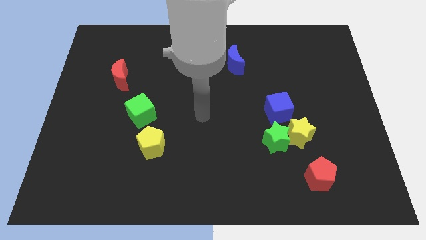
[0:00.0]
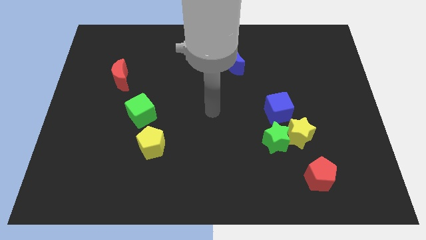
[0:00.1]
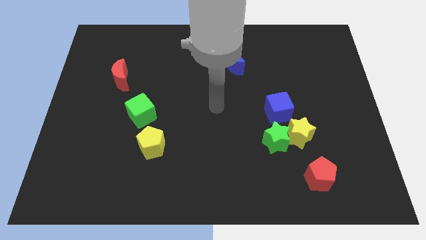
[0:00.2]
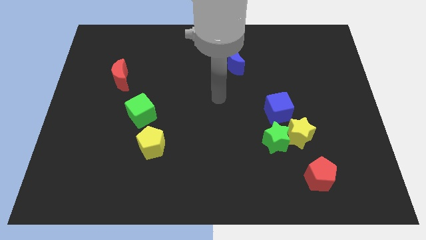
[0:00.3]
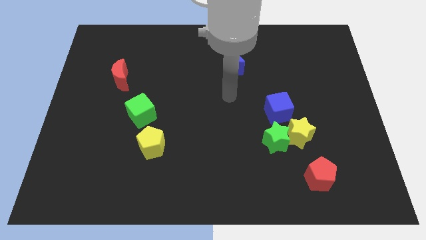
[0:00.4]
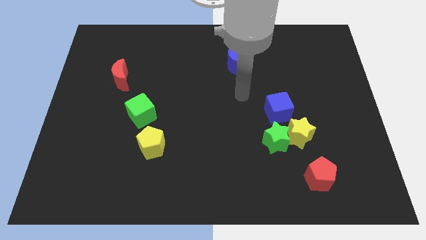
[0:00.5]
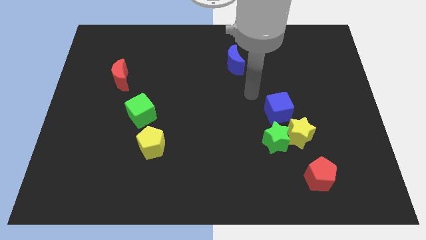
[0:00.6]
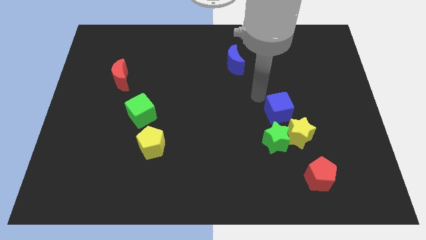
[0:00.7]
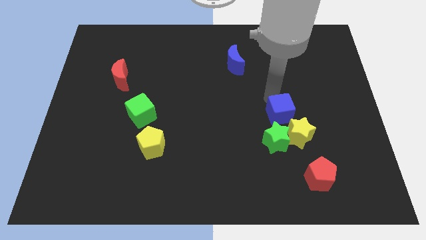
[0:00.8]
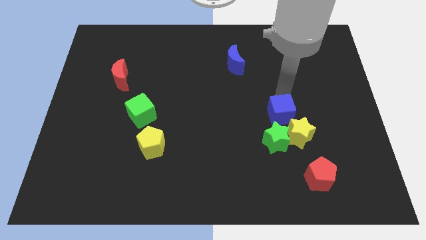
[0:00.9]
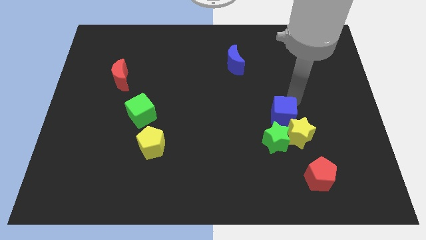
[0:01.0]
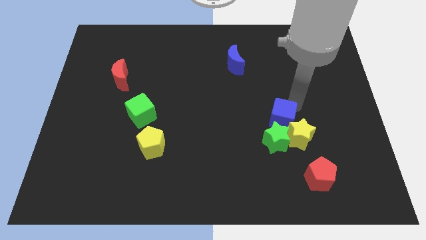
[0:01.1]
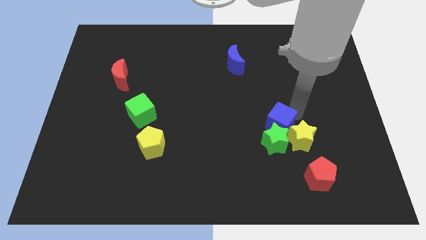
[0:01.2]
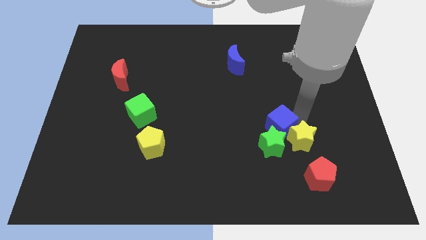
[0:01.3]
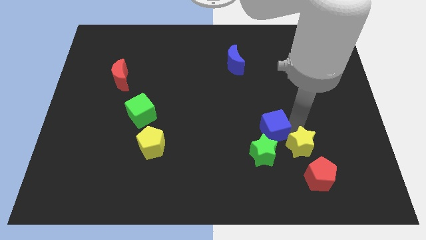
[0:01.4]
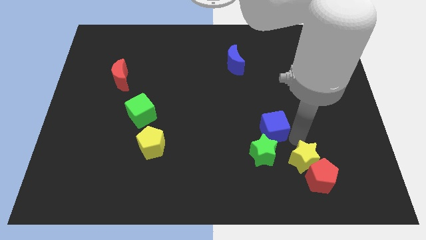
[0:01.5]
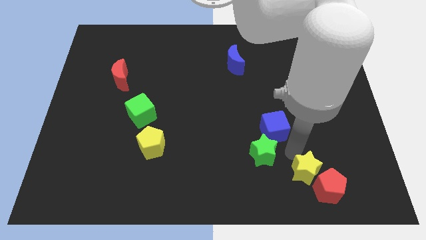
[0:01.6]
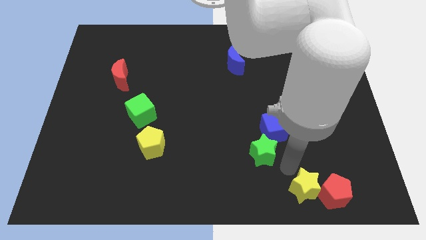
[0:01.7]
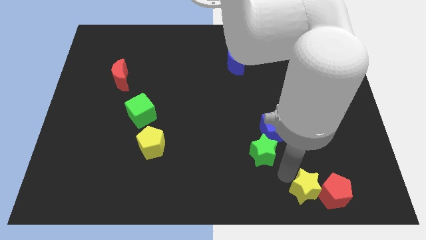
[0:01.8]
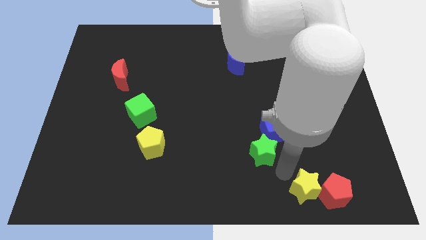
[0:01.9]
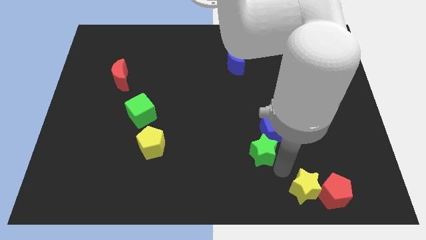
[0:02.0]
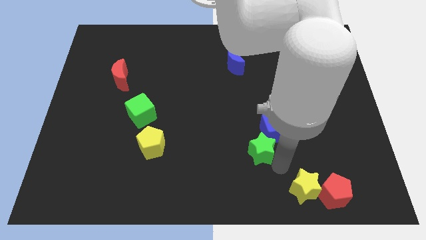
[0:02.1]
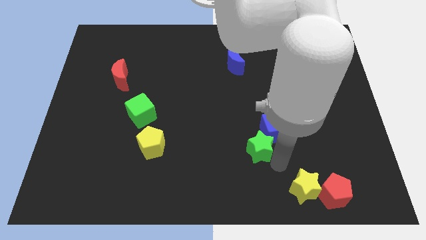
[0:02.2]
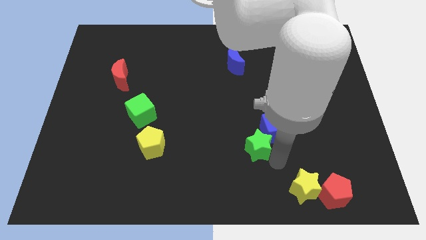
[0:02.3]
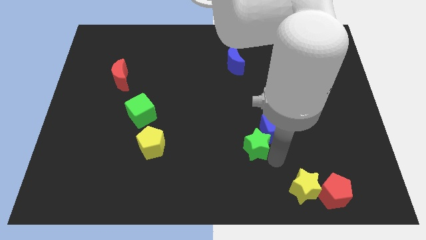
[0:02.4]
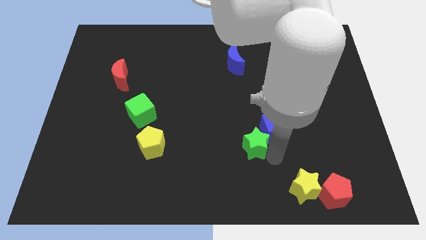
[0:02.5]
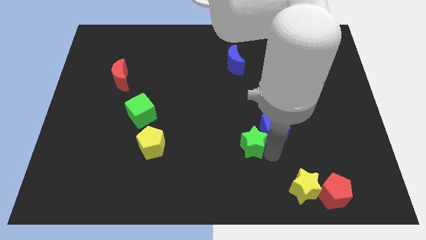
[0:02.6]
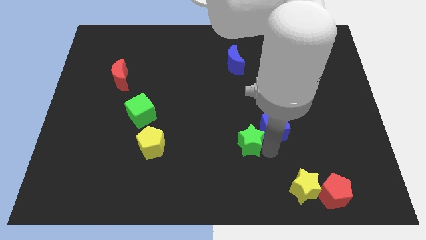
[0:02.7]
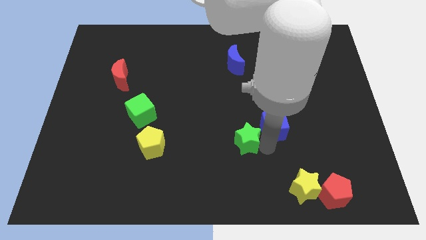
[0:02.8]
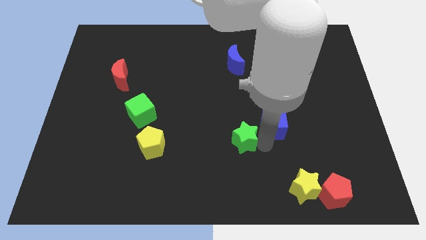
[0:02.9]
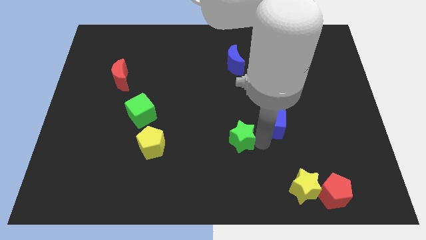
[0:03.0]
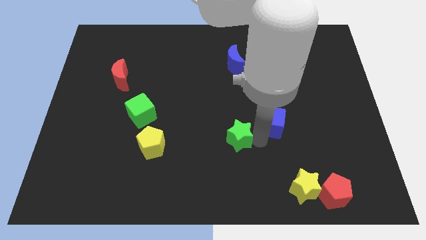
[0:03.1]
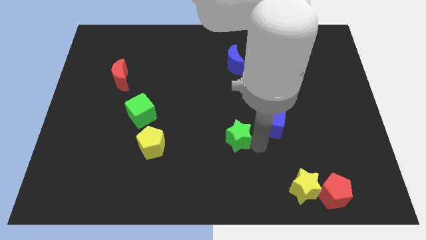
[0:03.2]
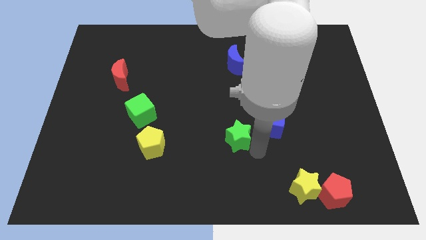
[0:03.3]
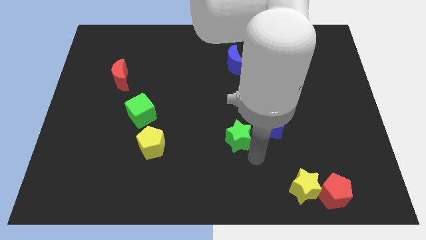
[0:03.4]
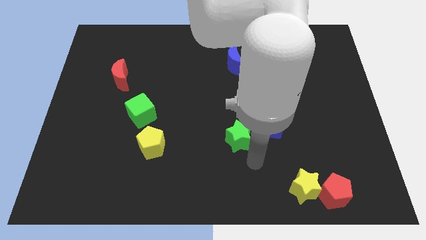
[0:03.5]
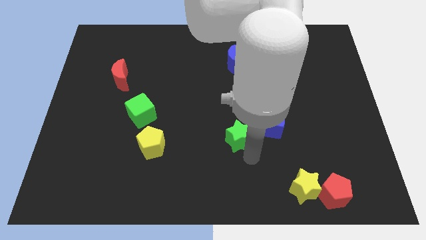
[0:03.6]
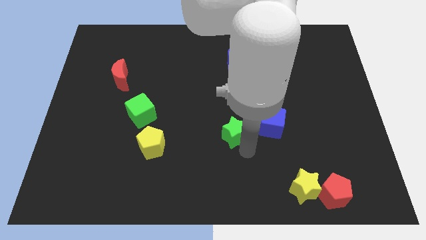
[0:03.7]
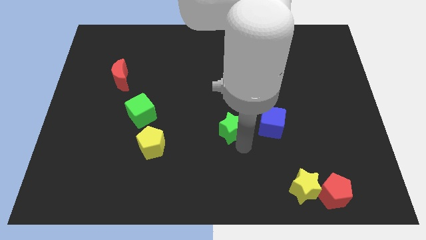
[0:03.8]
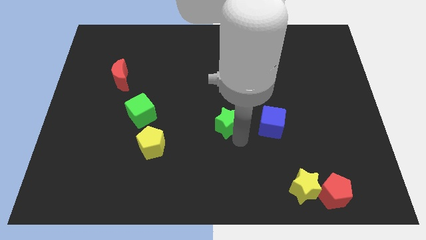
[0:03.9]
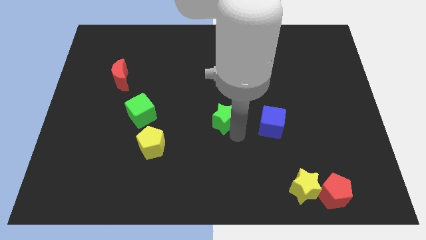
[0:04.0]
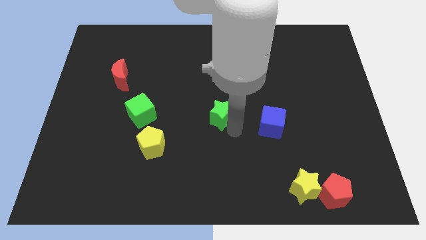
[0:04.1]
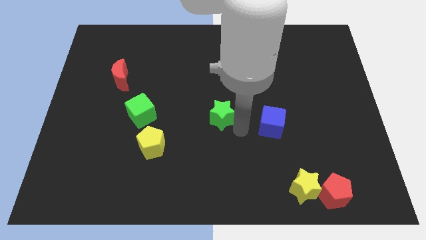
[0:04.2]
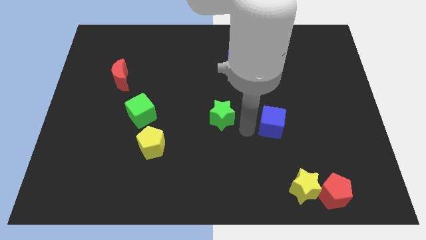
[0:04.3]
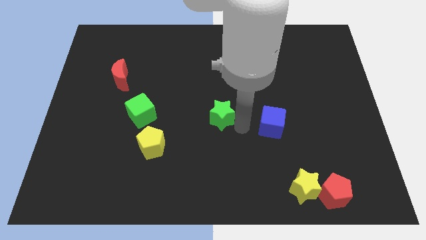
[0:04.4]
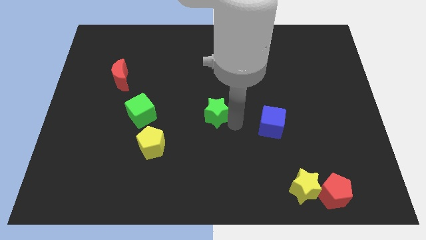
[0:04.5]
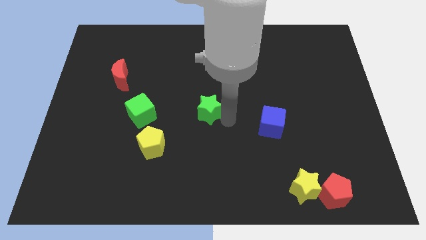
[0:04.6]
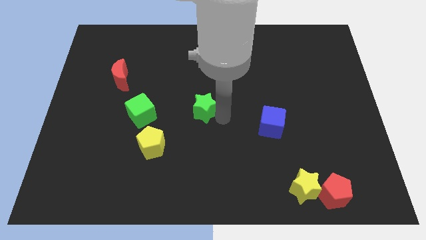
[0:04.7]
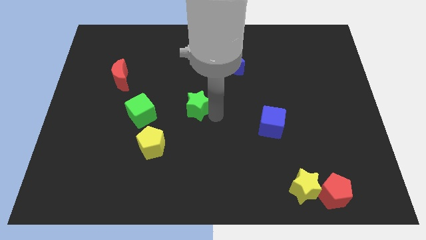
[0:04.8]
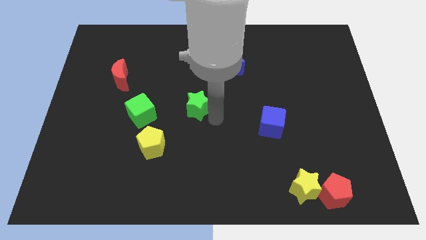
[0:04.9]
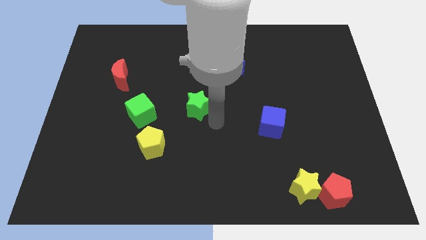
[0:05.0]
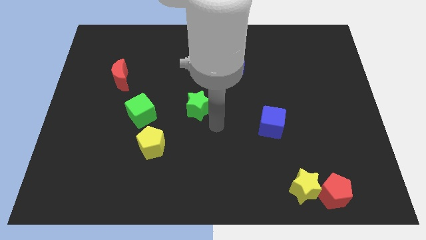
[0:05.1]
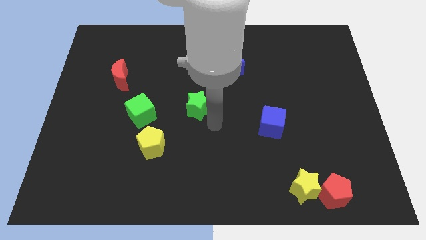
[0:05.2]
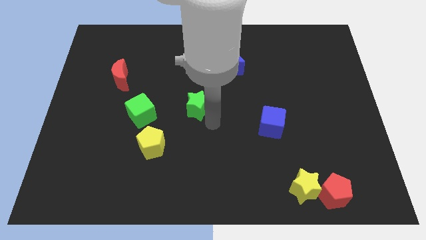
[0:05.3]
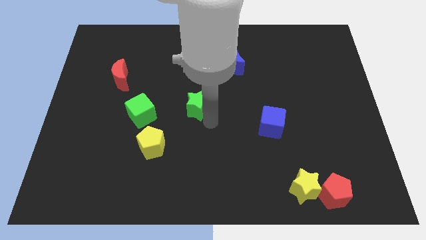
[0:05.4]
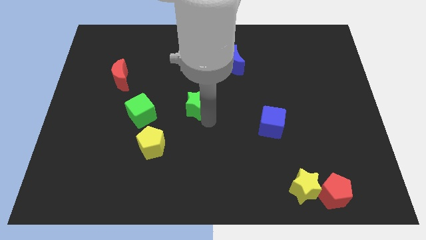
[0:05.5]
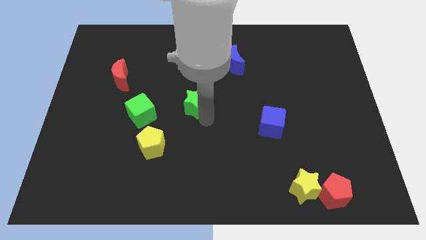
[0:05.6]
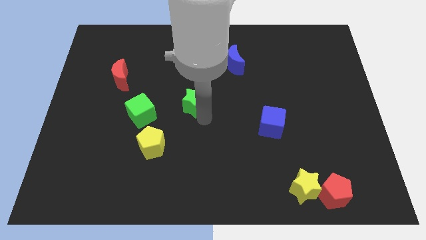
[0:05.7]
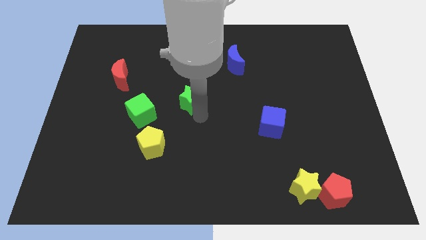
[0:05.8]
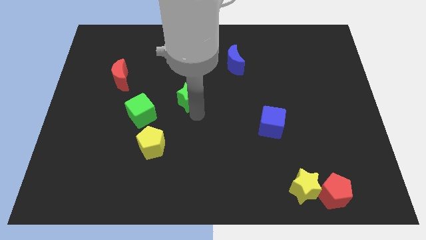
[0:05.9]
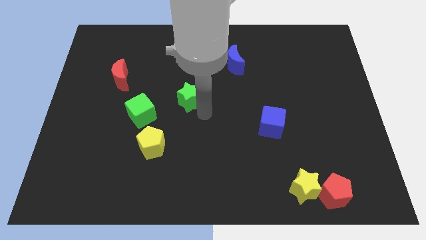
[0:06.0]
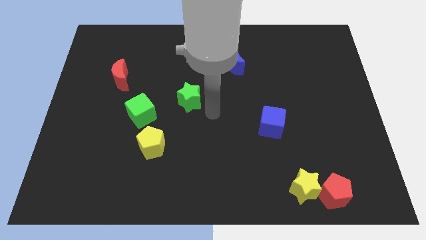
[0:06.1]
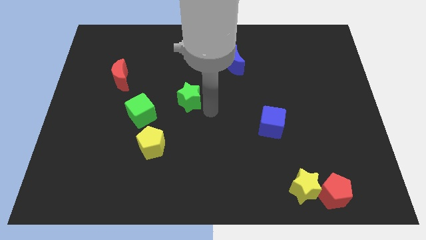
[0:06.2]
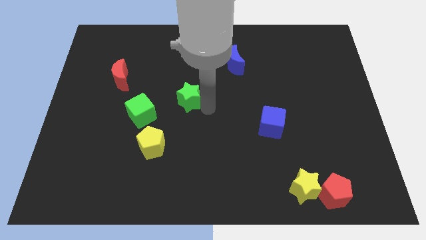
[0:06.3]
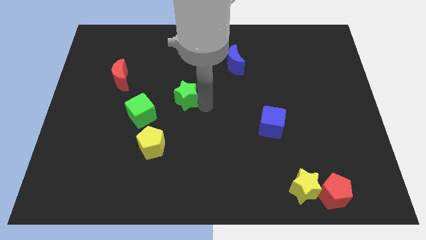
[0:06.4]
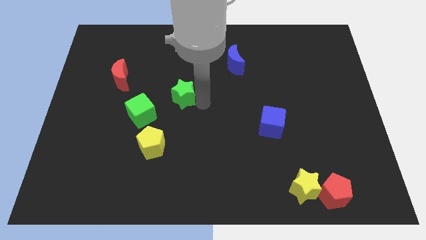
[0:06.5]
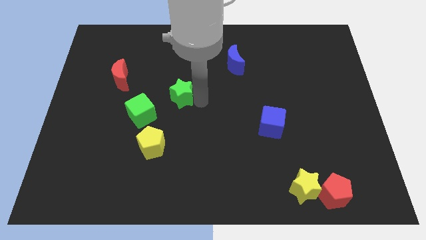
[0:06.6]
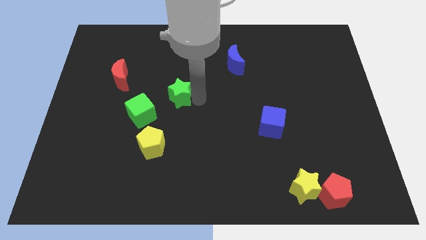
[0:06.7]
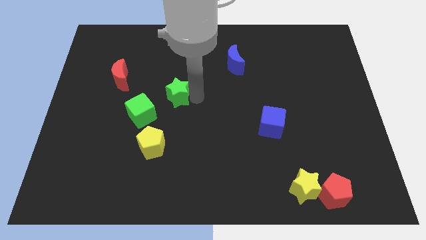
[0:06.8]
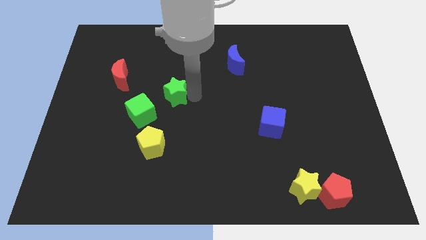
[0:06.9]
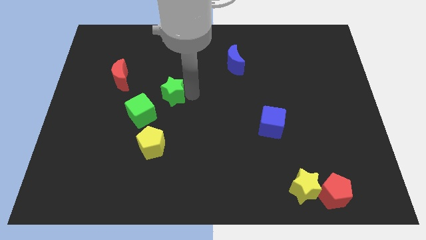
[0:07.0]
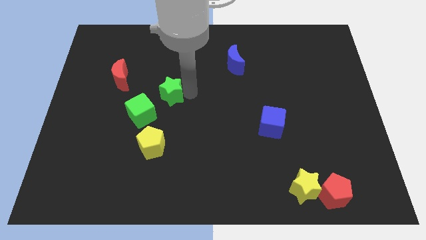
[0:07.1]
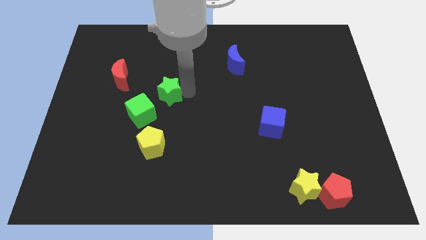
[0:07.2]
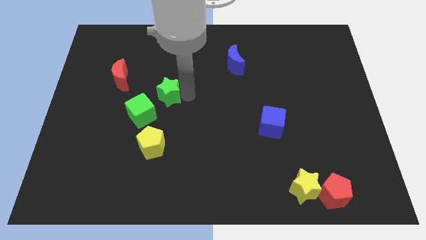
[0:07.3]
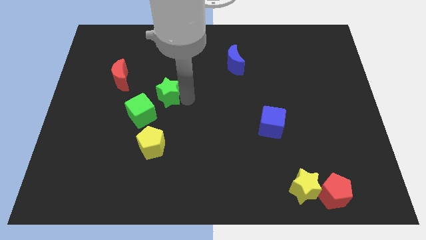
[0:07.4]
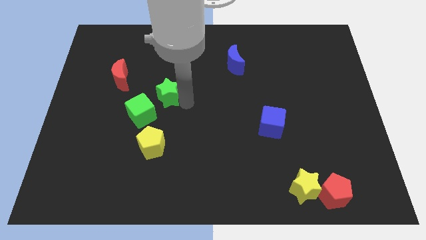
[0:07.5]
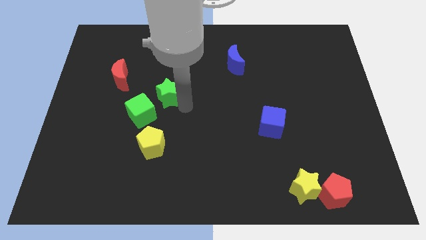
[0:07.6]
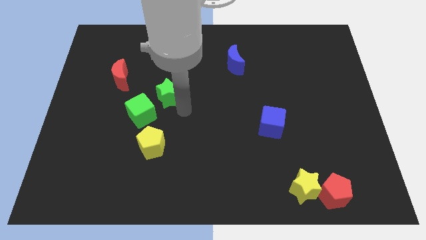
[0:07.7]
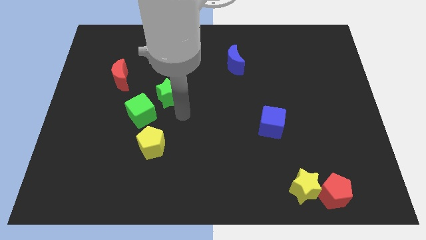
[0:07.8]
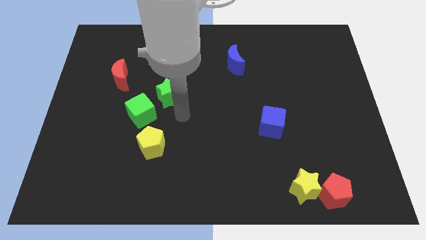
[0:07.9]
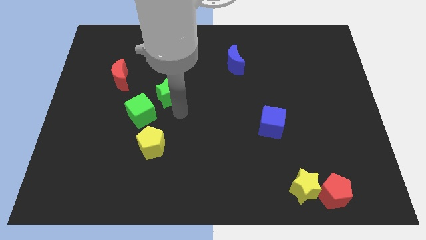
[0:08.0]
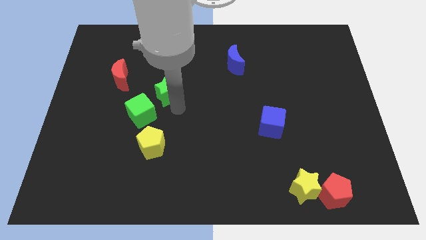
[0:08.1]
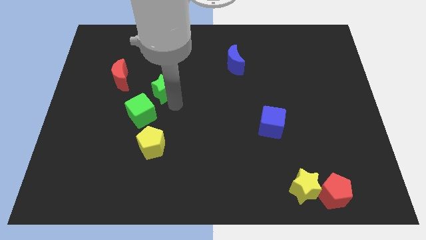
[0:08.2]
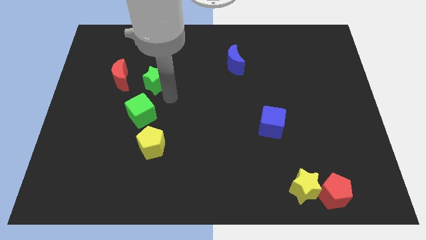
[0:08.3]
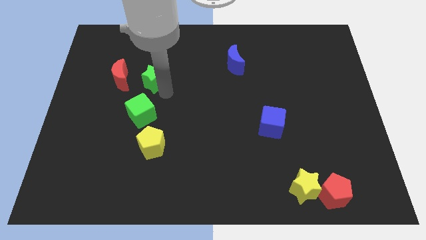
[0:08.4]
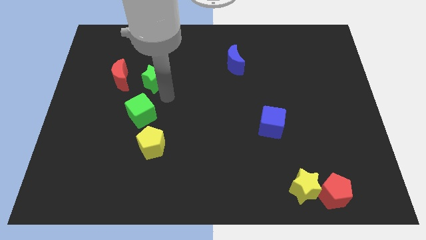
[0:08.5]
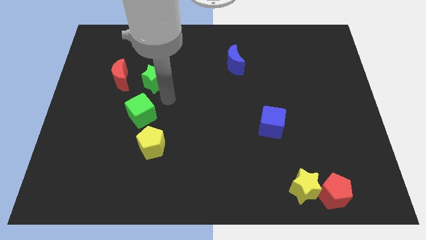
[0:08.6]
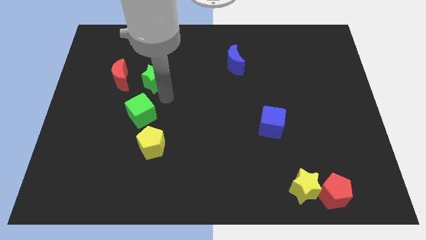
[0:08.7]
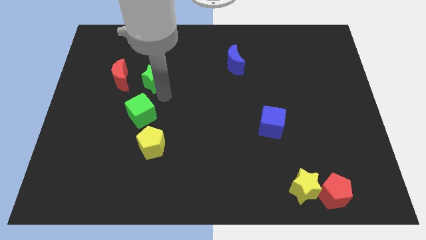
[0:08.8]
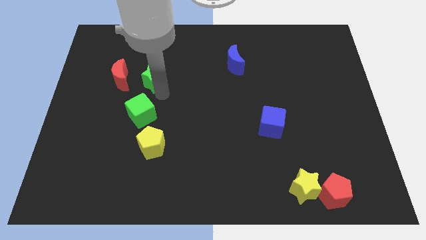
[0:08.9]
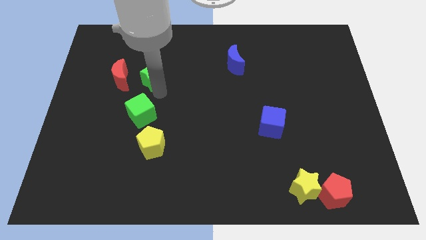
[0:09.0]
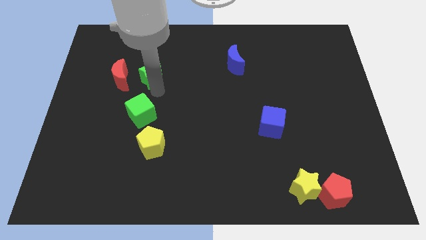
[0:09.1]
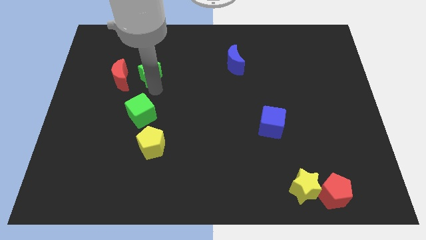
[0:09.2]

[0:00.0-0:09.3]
move the green star to the top right side of the red moon
